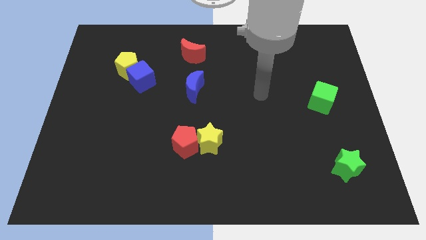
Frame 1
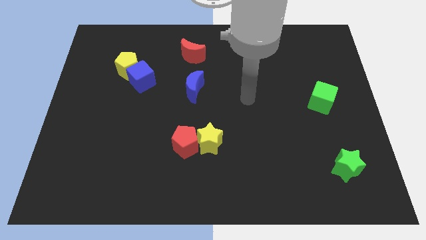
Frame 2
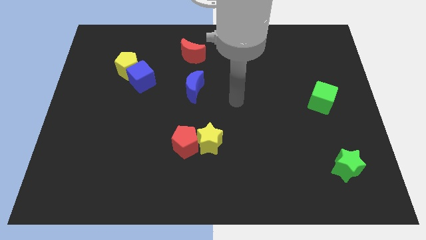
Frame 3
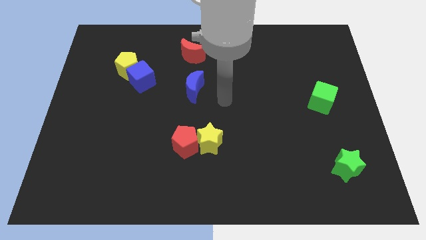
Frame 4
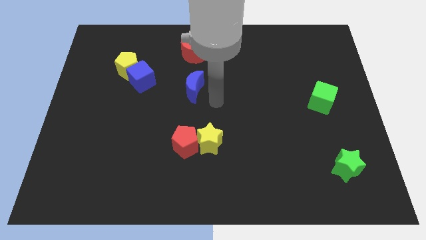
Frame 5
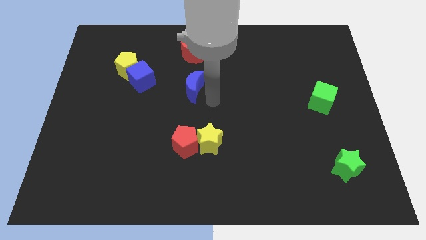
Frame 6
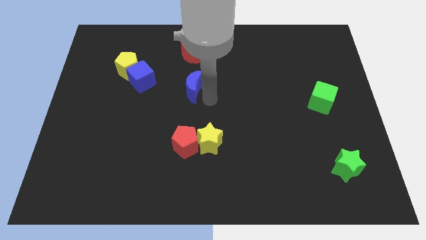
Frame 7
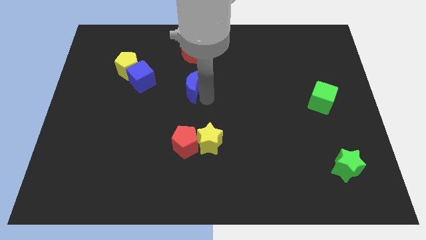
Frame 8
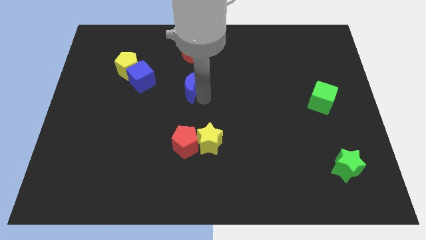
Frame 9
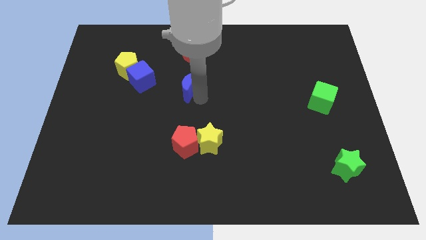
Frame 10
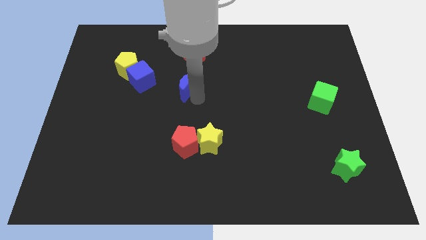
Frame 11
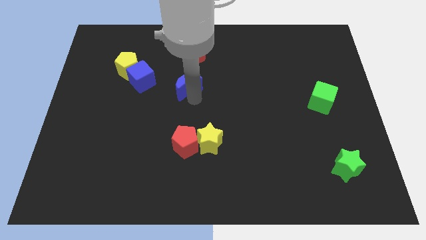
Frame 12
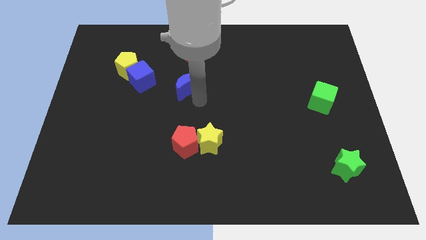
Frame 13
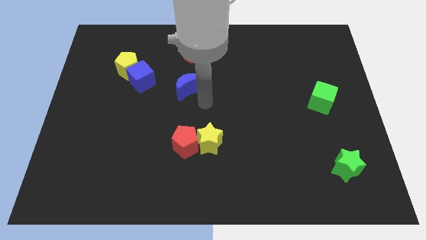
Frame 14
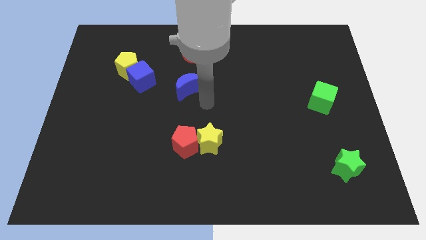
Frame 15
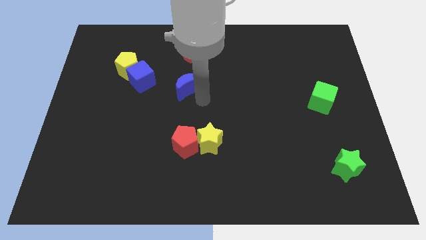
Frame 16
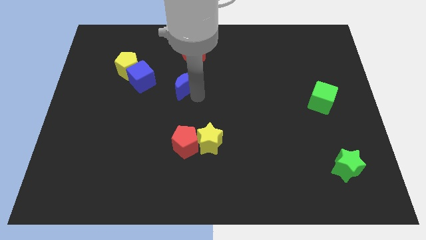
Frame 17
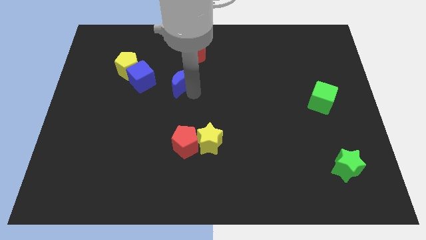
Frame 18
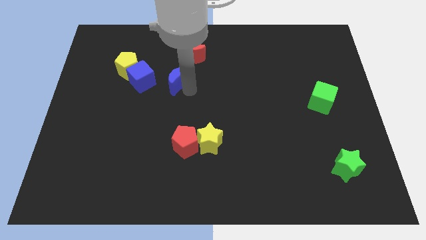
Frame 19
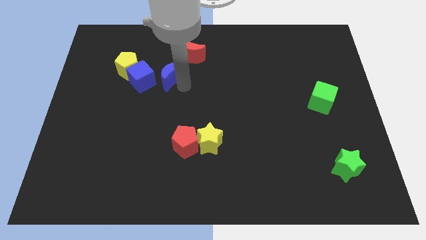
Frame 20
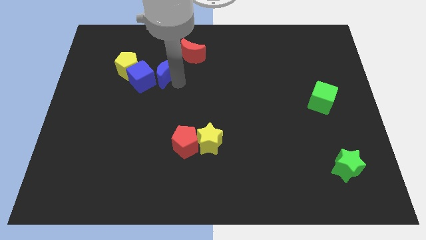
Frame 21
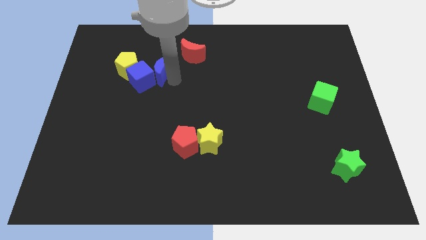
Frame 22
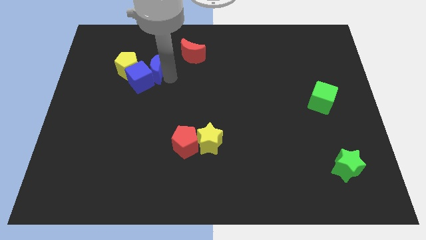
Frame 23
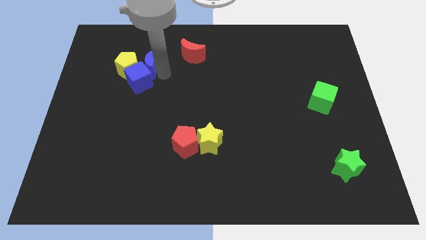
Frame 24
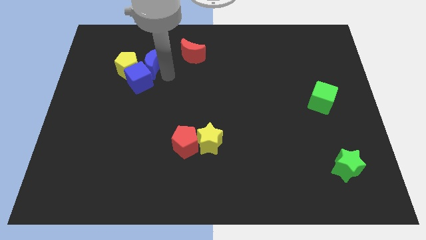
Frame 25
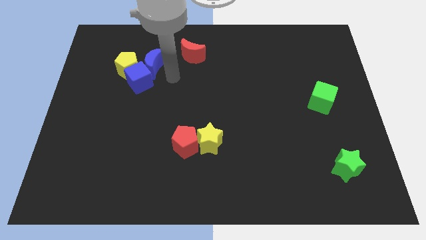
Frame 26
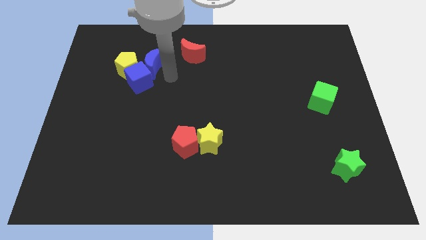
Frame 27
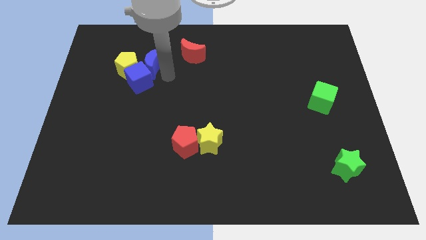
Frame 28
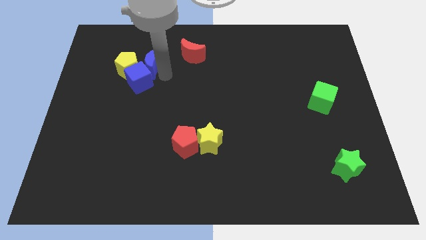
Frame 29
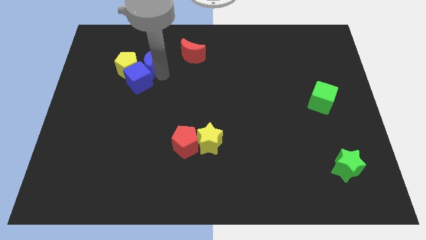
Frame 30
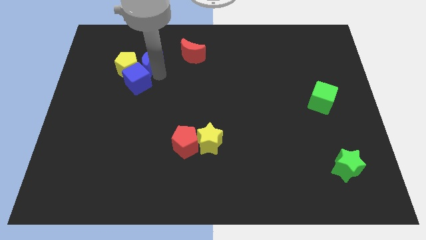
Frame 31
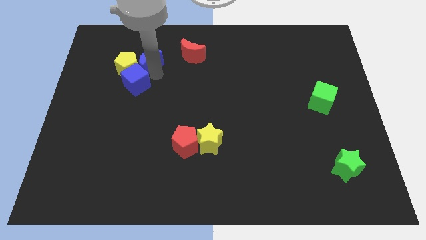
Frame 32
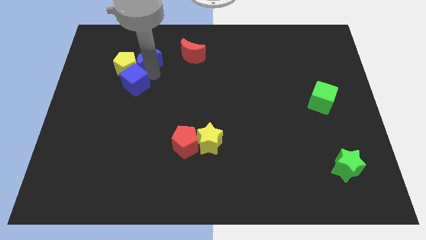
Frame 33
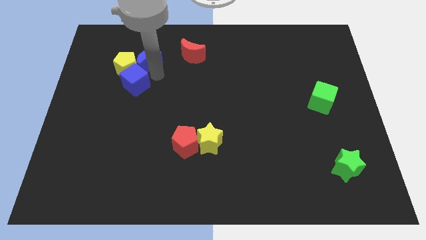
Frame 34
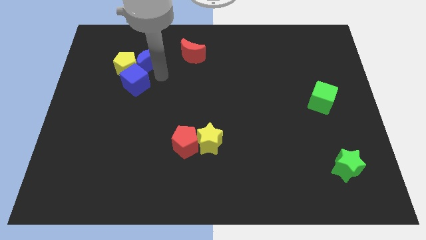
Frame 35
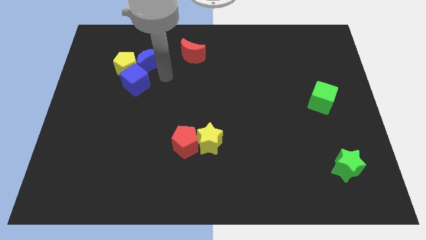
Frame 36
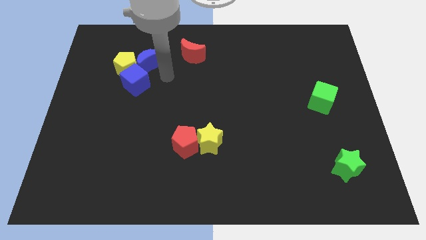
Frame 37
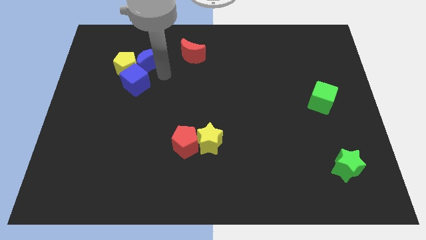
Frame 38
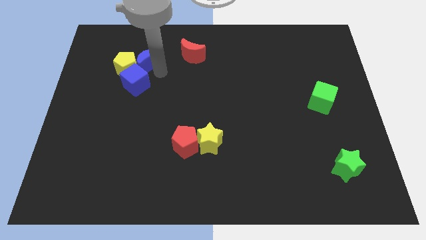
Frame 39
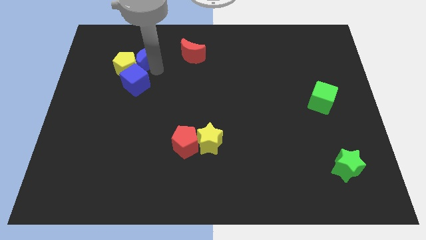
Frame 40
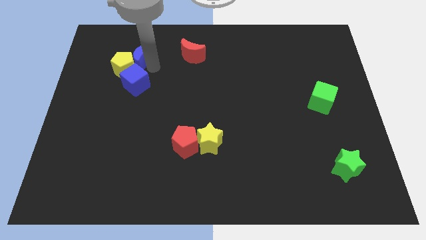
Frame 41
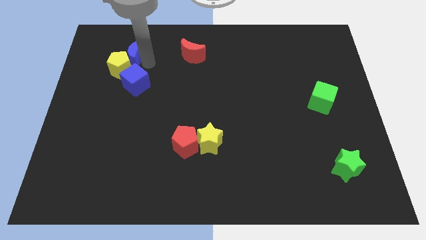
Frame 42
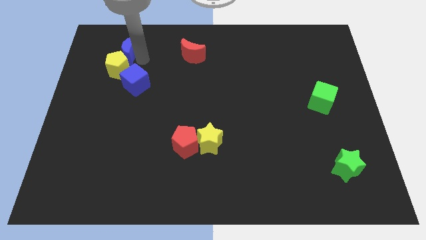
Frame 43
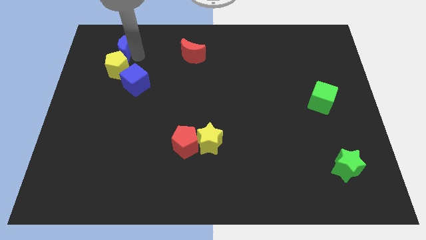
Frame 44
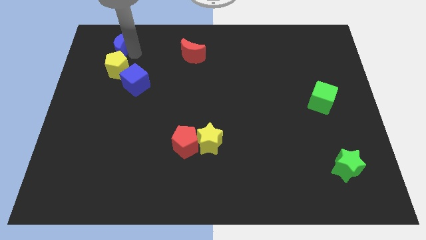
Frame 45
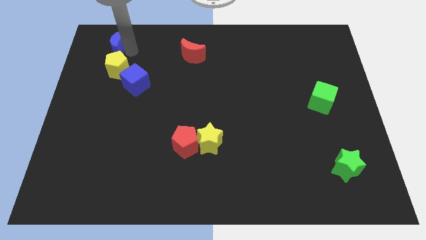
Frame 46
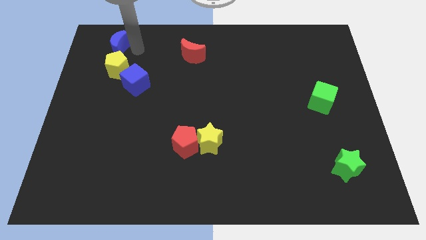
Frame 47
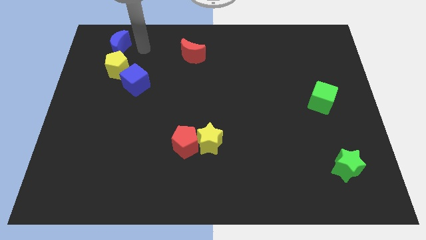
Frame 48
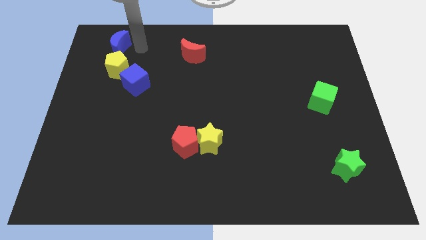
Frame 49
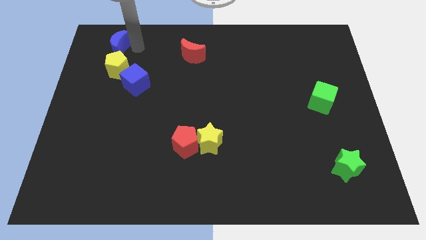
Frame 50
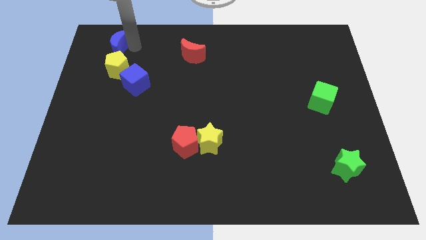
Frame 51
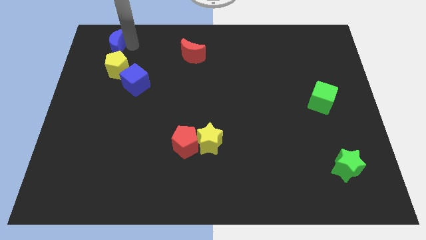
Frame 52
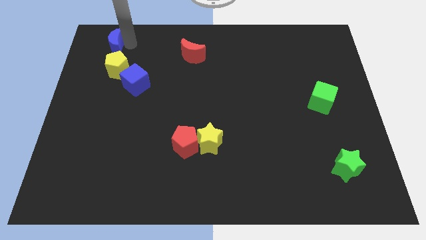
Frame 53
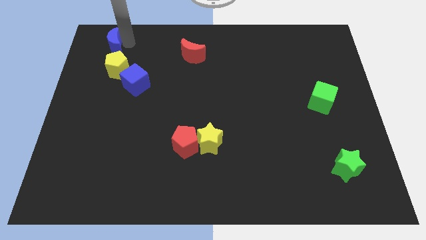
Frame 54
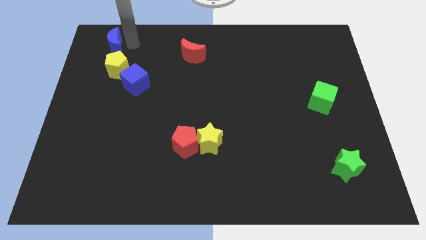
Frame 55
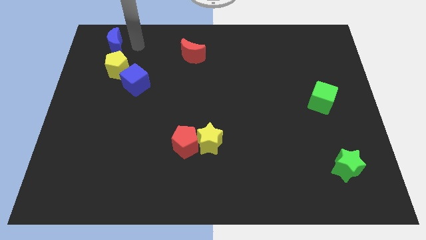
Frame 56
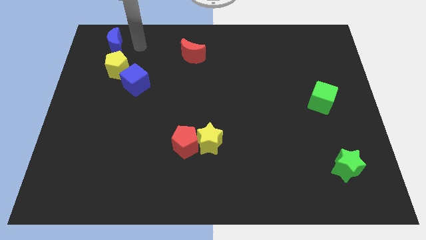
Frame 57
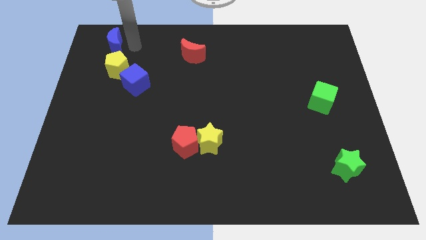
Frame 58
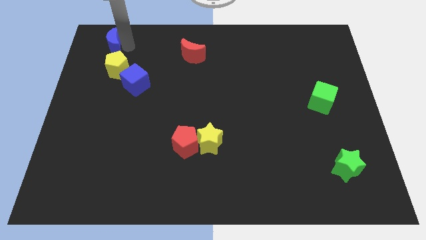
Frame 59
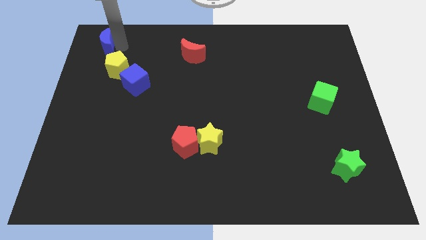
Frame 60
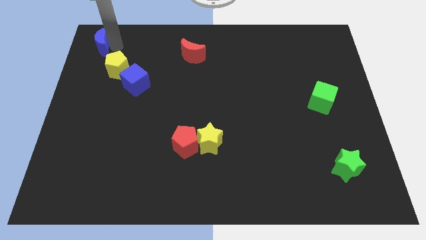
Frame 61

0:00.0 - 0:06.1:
push the blue moon to the top left corner
